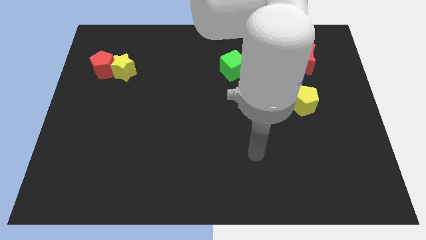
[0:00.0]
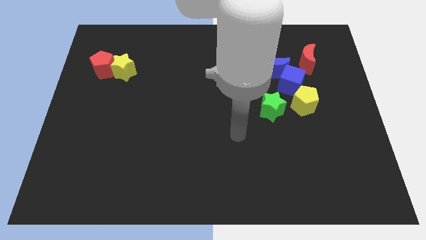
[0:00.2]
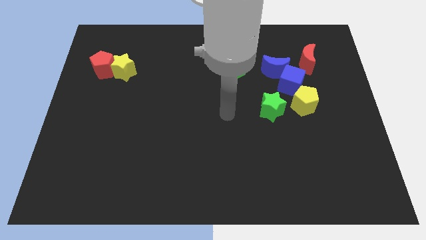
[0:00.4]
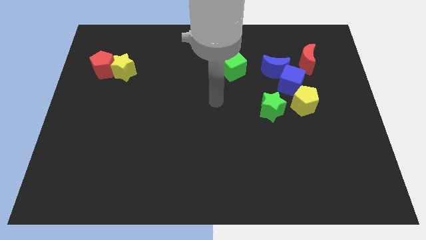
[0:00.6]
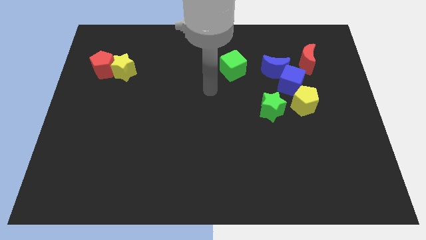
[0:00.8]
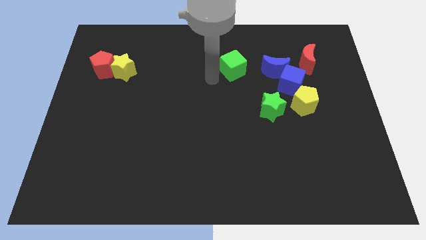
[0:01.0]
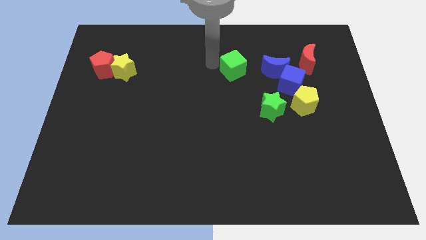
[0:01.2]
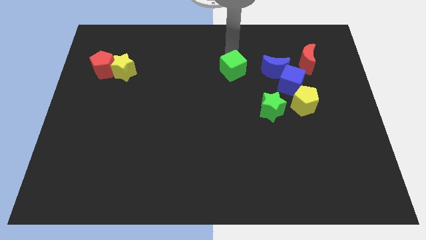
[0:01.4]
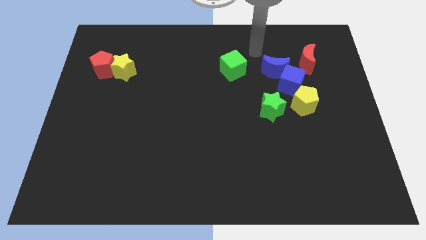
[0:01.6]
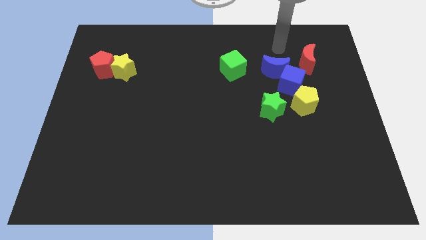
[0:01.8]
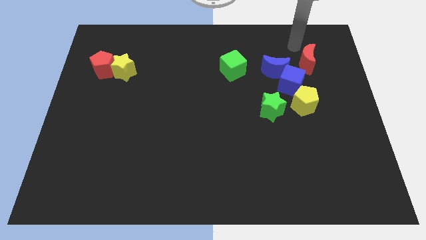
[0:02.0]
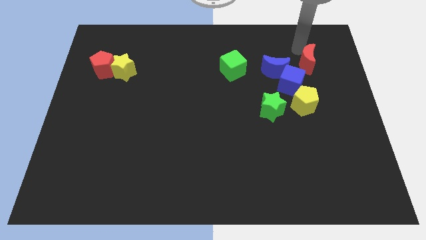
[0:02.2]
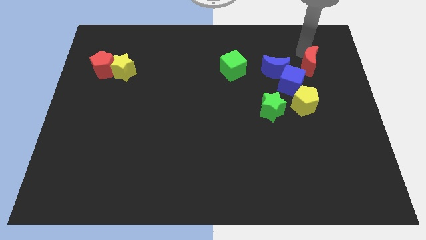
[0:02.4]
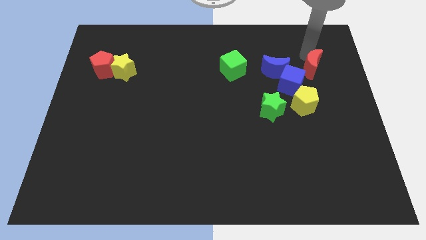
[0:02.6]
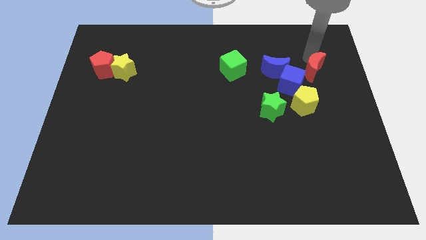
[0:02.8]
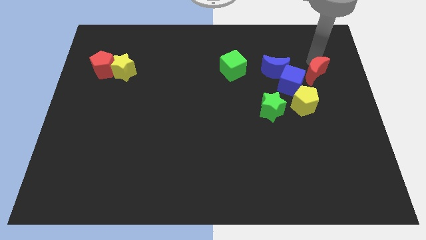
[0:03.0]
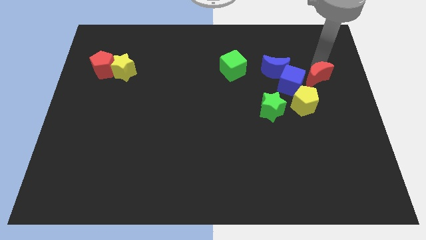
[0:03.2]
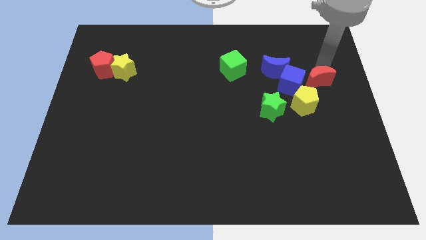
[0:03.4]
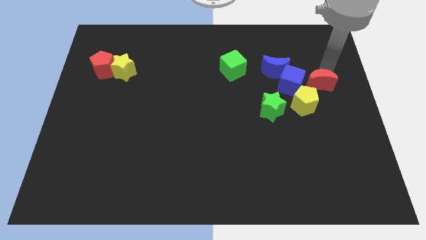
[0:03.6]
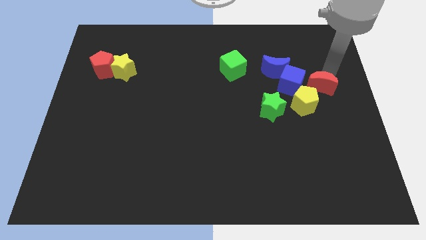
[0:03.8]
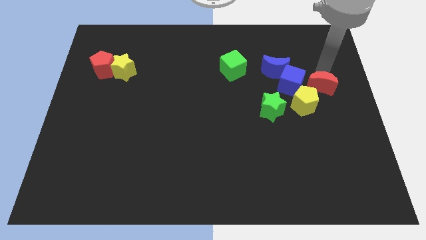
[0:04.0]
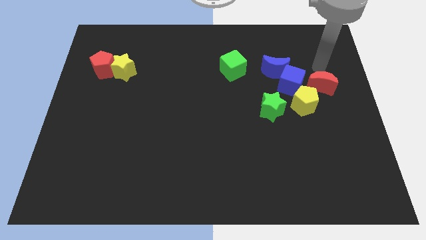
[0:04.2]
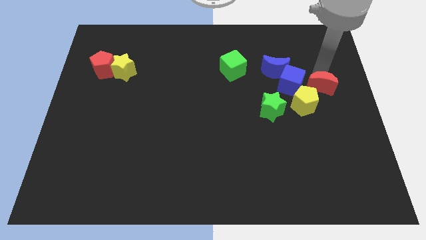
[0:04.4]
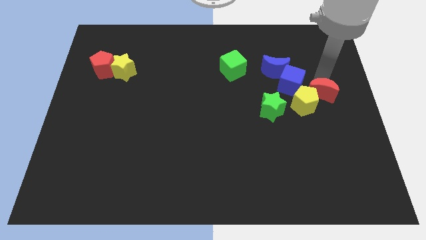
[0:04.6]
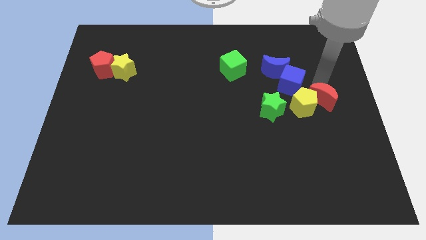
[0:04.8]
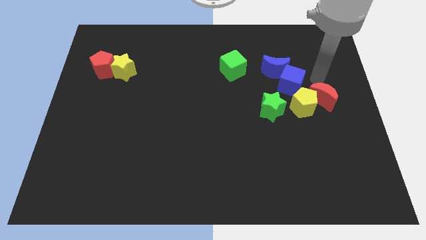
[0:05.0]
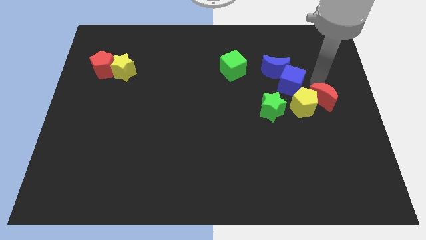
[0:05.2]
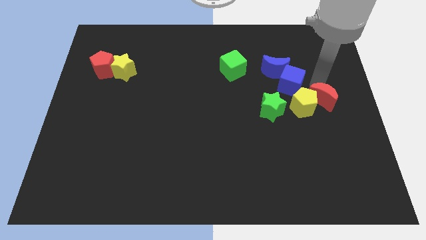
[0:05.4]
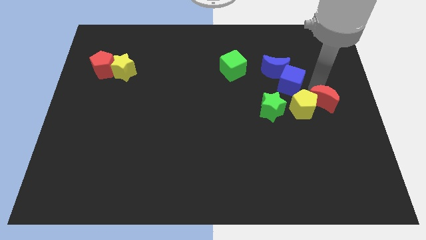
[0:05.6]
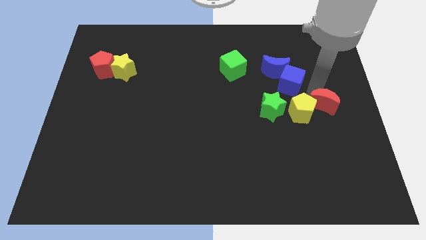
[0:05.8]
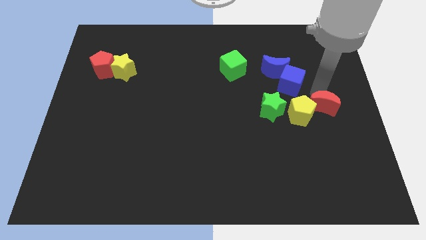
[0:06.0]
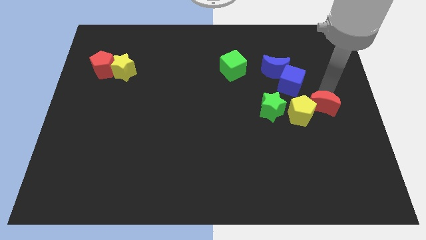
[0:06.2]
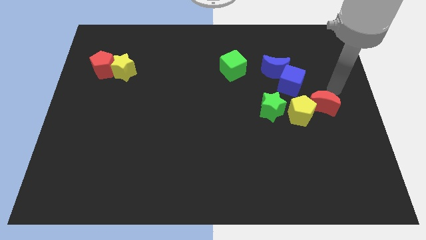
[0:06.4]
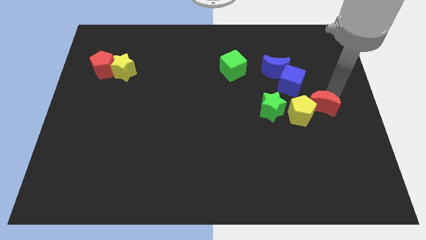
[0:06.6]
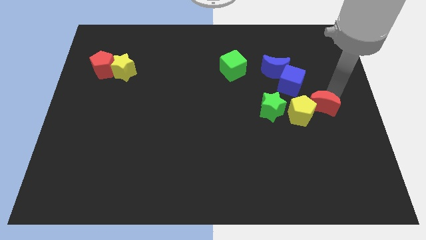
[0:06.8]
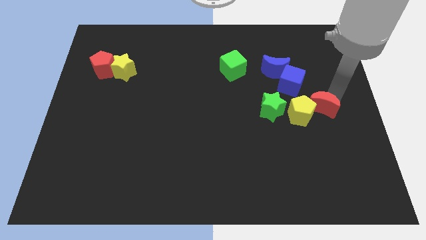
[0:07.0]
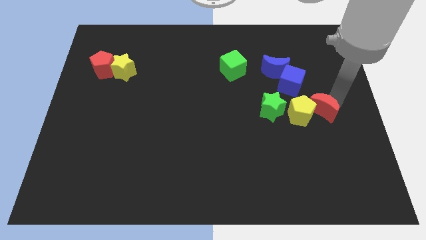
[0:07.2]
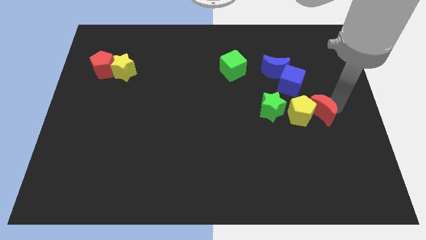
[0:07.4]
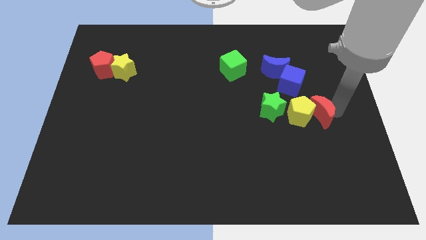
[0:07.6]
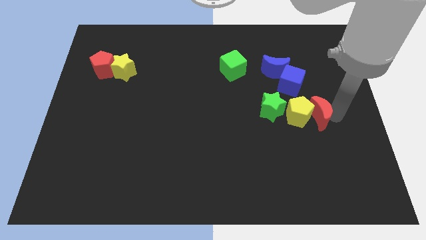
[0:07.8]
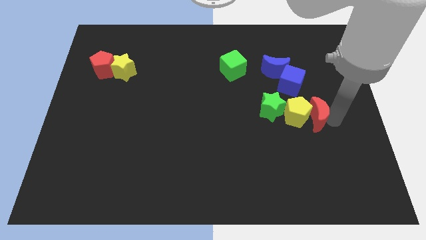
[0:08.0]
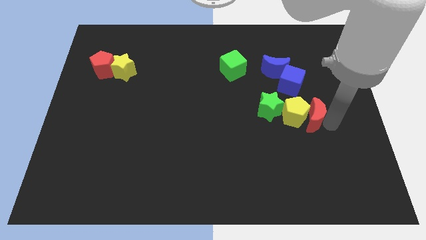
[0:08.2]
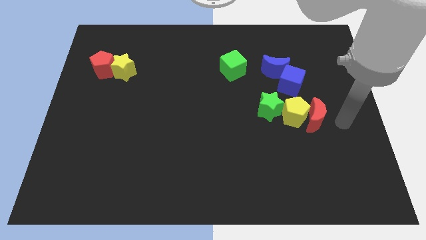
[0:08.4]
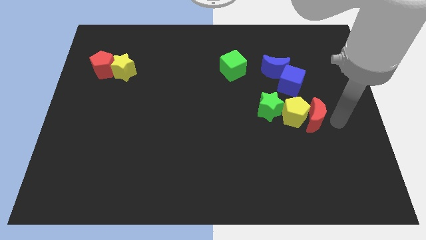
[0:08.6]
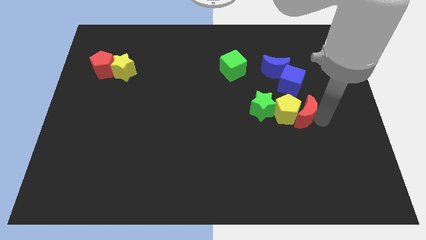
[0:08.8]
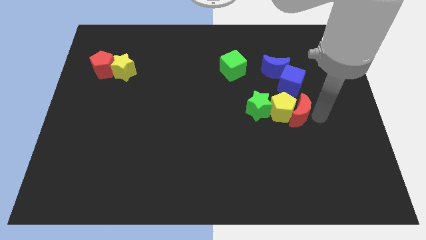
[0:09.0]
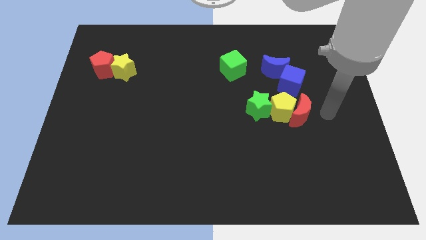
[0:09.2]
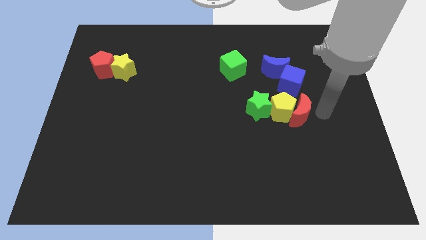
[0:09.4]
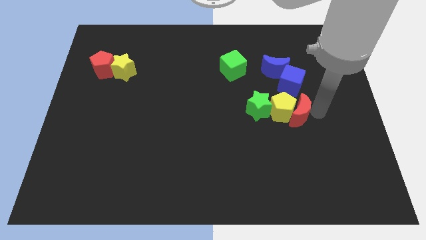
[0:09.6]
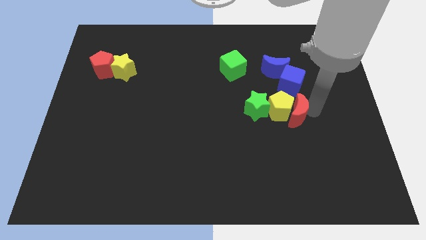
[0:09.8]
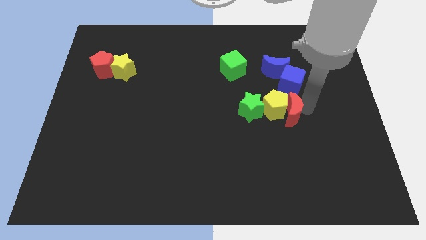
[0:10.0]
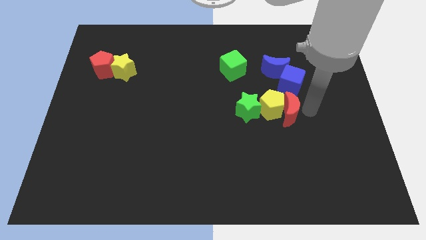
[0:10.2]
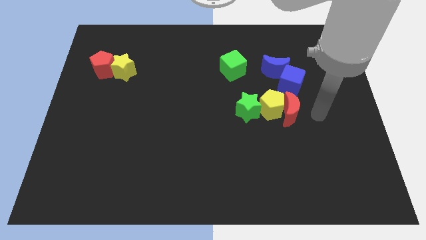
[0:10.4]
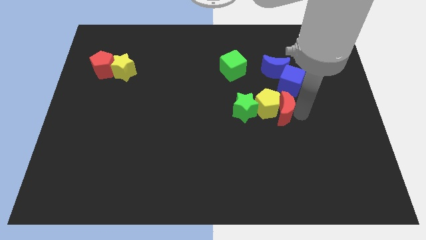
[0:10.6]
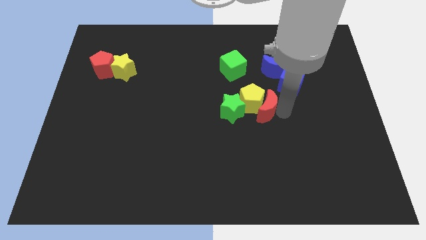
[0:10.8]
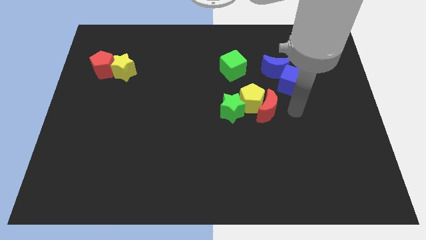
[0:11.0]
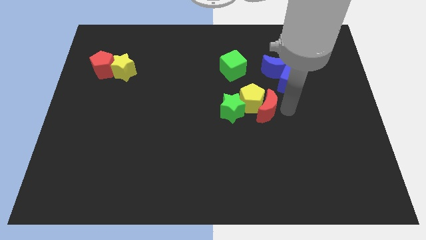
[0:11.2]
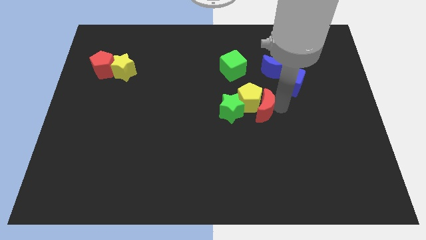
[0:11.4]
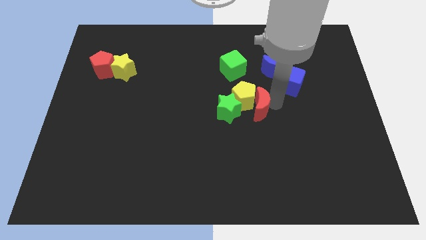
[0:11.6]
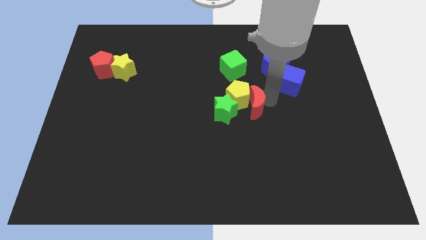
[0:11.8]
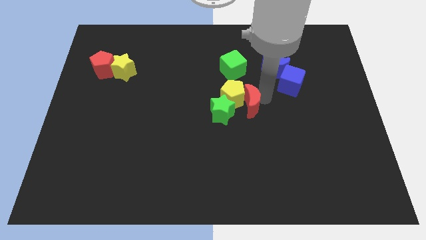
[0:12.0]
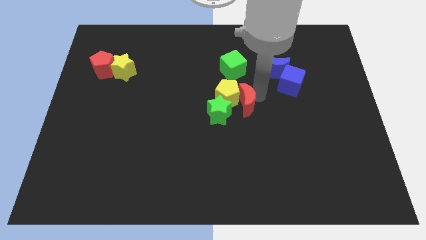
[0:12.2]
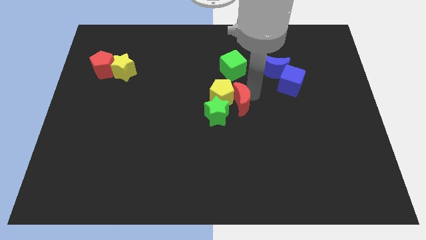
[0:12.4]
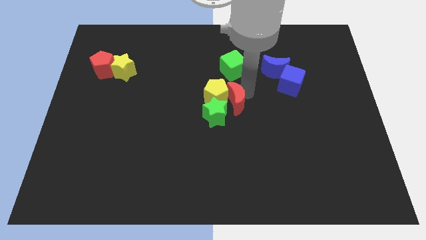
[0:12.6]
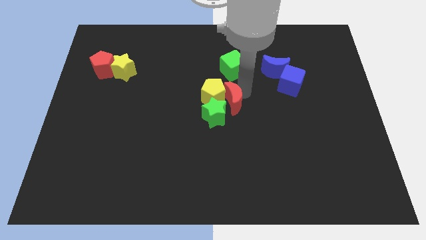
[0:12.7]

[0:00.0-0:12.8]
move the red moon to the green star

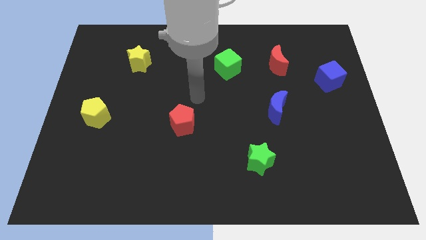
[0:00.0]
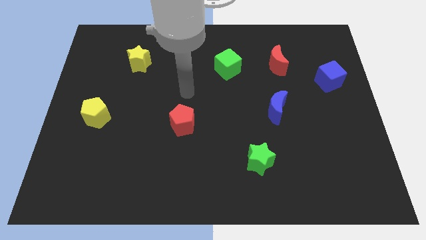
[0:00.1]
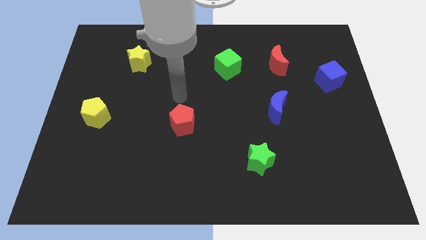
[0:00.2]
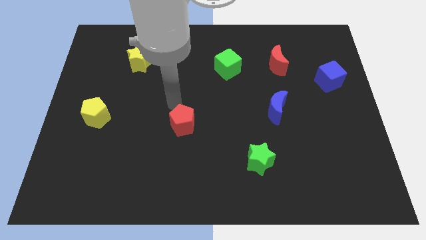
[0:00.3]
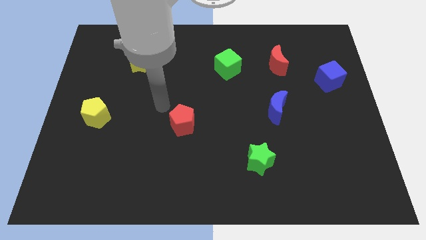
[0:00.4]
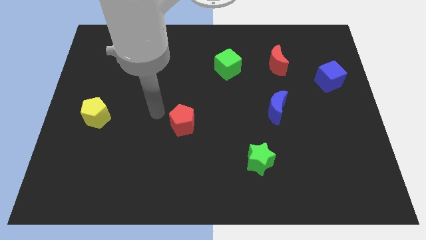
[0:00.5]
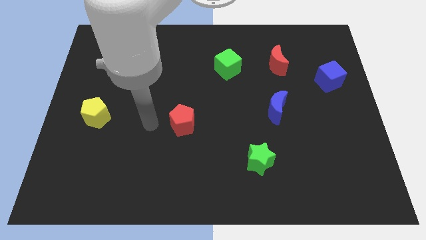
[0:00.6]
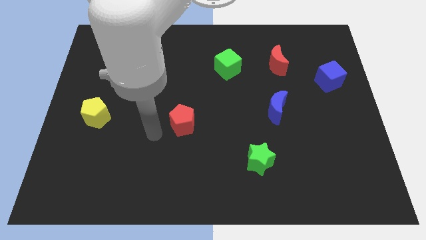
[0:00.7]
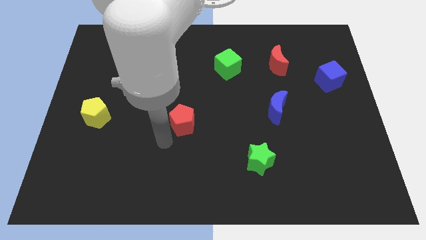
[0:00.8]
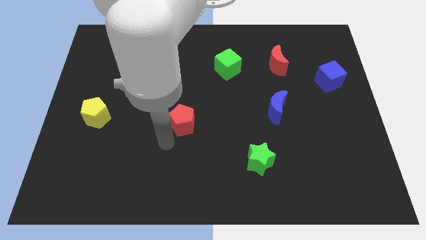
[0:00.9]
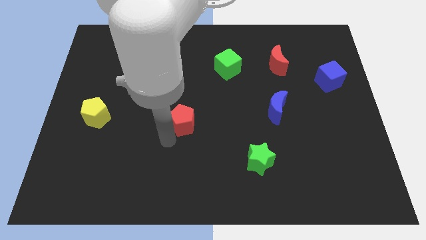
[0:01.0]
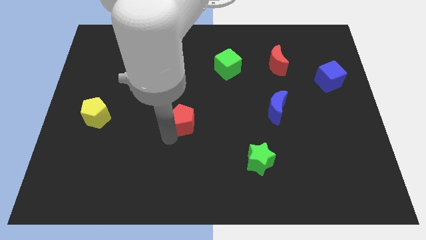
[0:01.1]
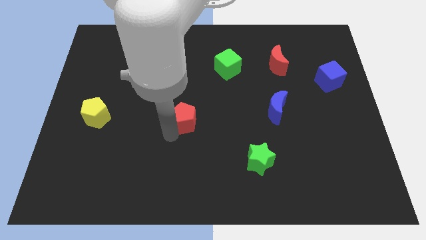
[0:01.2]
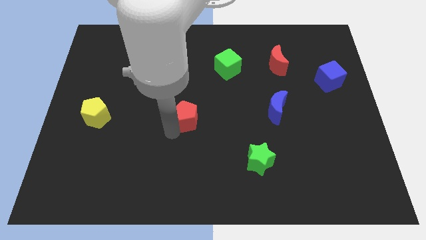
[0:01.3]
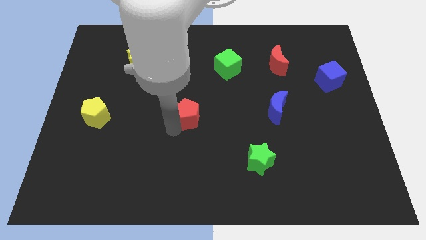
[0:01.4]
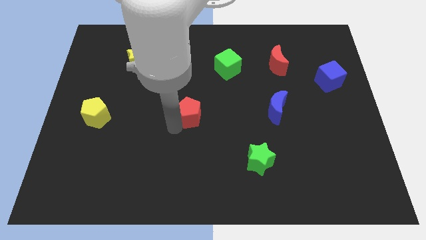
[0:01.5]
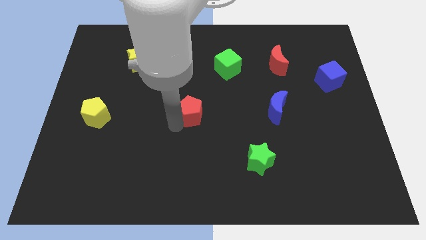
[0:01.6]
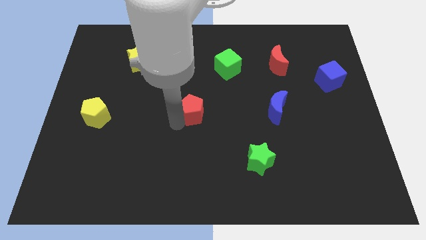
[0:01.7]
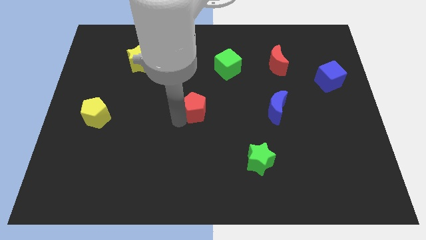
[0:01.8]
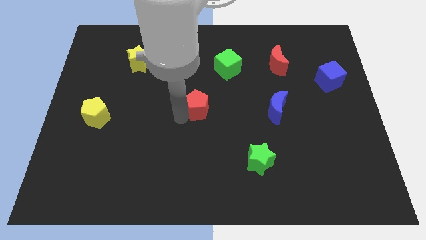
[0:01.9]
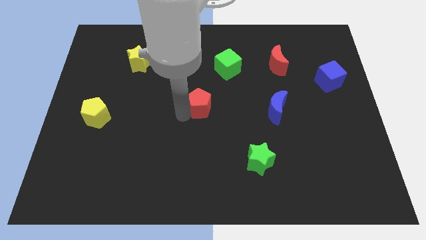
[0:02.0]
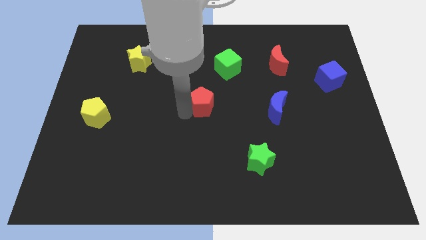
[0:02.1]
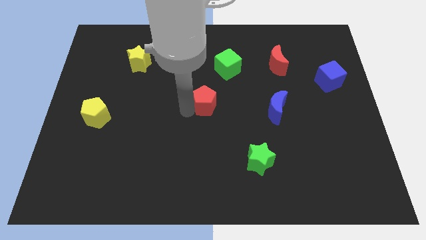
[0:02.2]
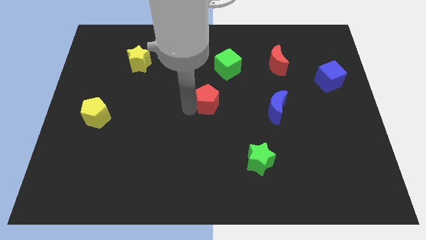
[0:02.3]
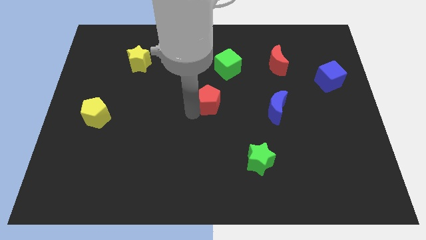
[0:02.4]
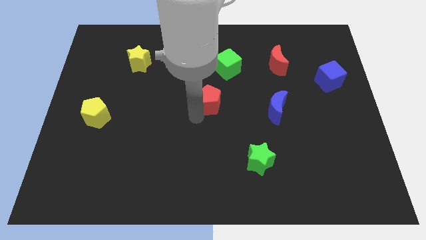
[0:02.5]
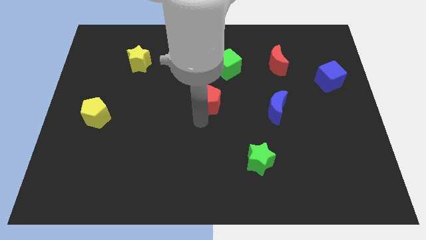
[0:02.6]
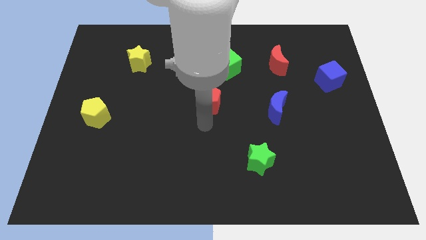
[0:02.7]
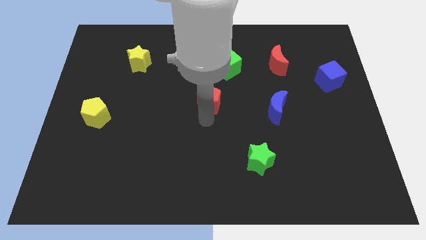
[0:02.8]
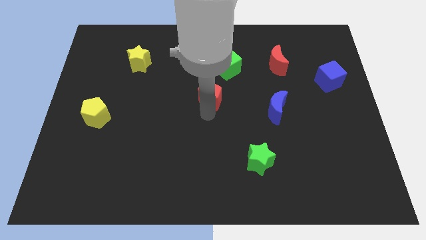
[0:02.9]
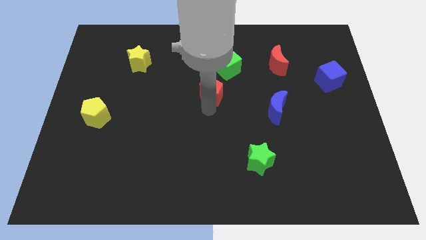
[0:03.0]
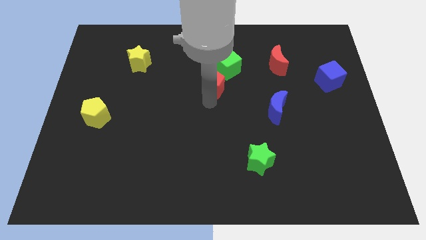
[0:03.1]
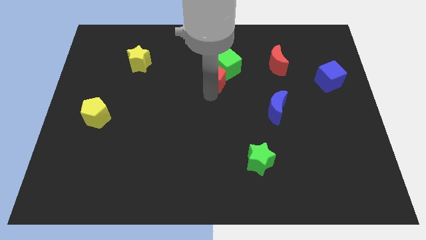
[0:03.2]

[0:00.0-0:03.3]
put the red pentagon to the green cube
